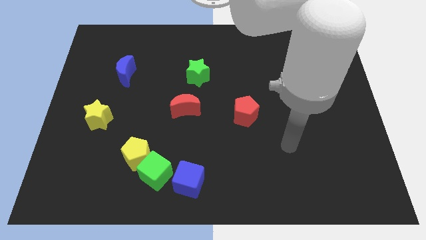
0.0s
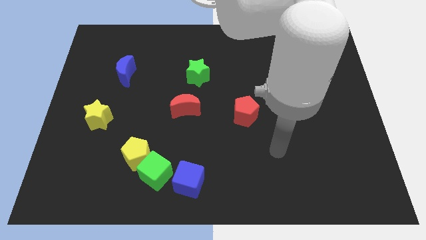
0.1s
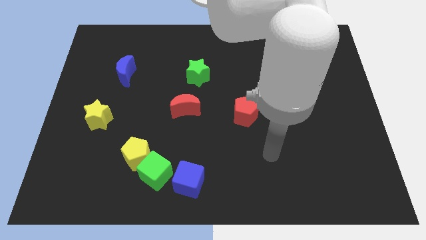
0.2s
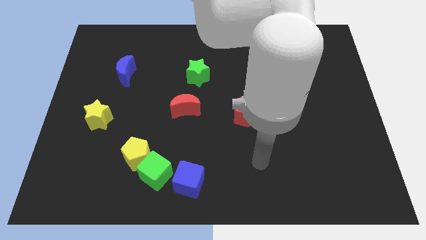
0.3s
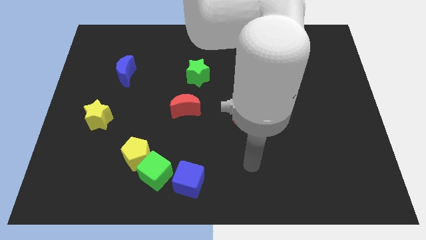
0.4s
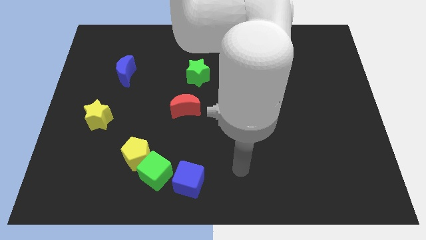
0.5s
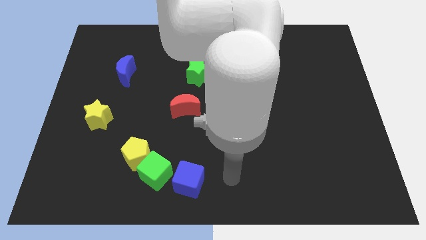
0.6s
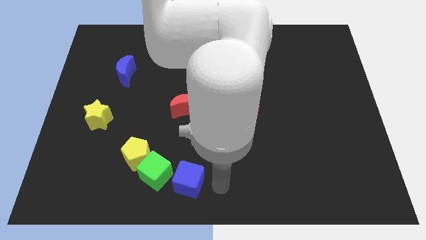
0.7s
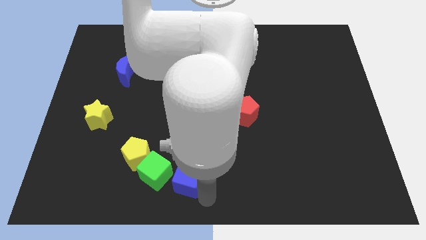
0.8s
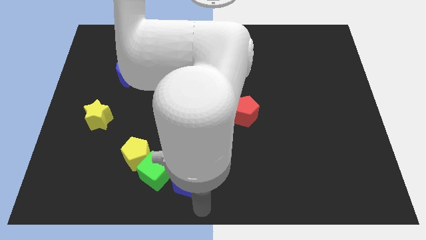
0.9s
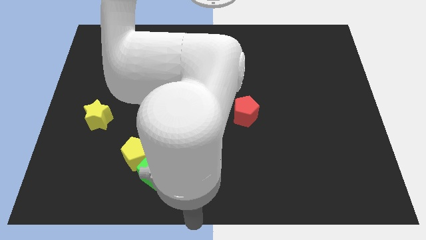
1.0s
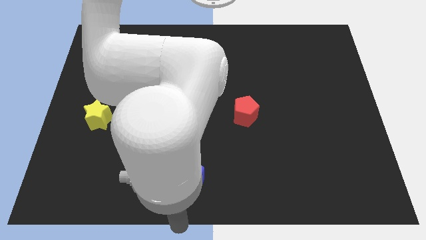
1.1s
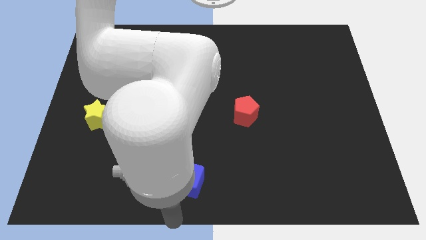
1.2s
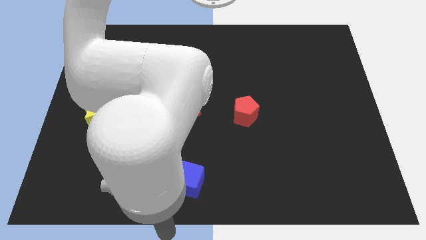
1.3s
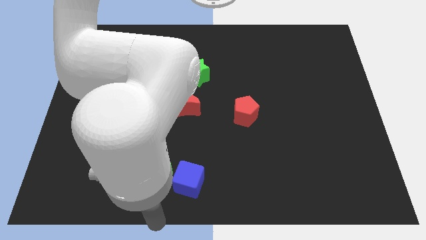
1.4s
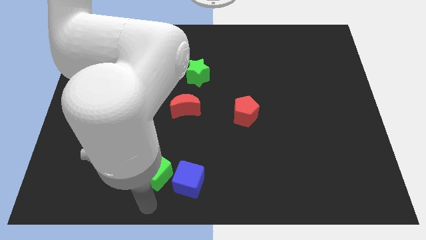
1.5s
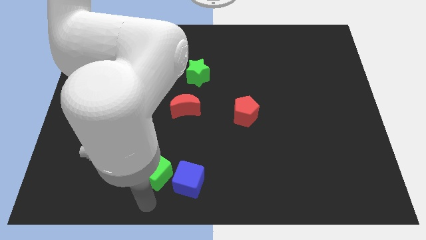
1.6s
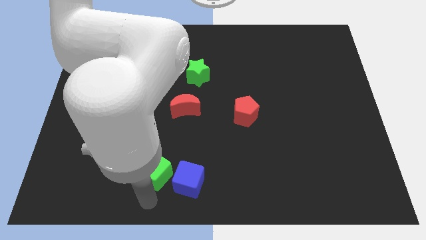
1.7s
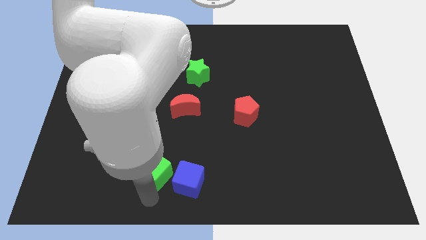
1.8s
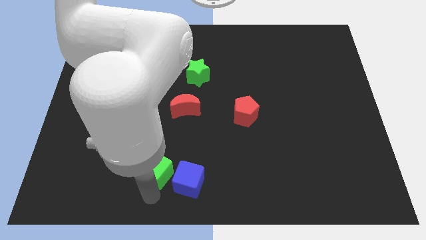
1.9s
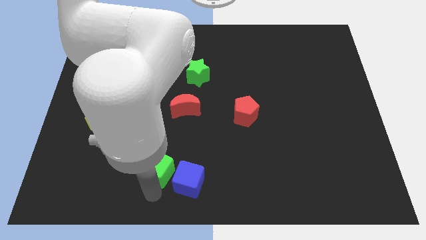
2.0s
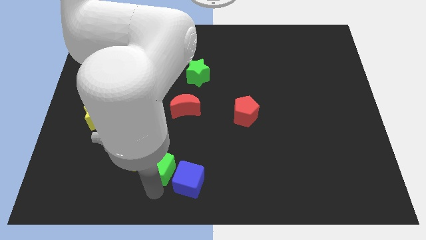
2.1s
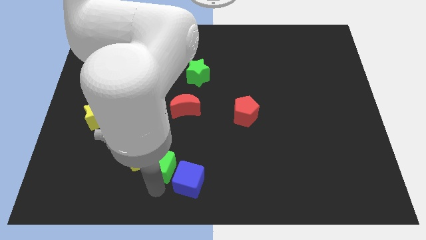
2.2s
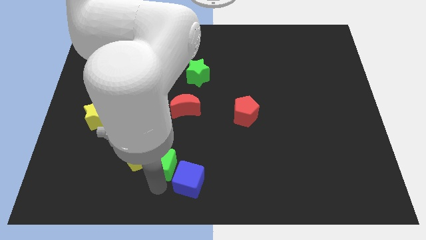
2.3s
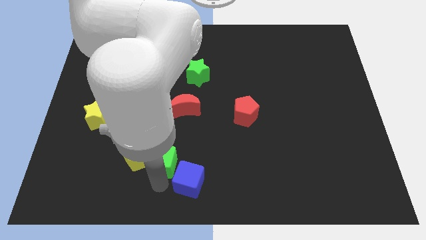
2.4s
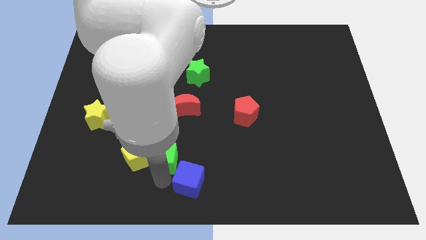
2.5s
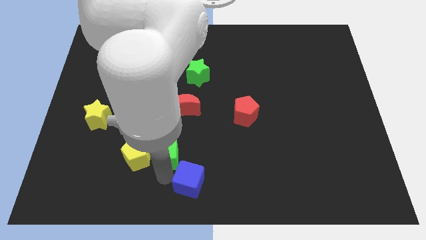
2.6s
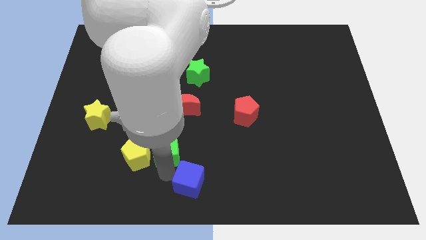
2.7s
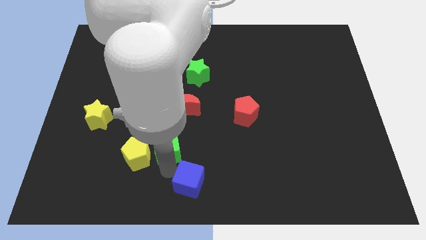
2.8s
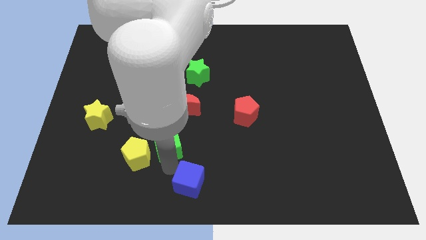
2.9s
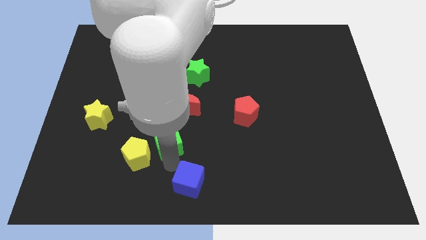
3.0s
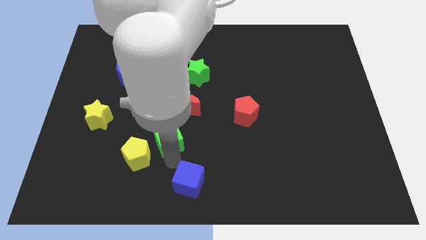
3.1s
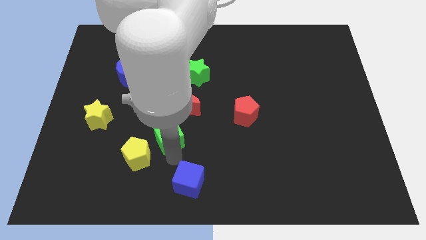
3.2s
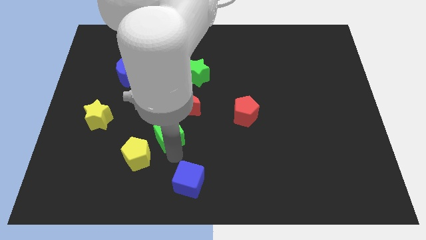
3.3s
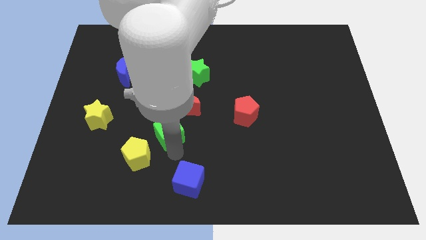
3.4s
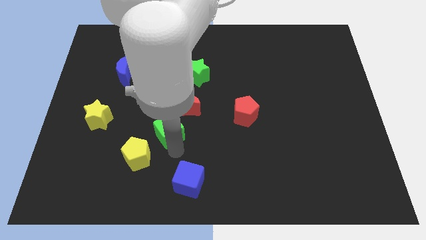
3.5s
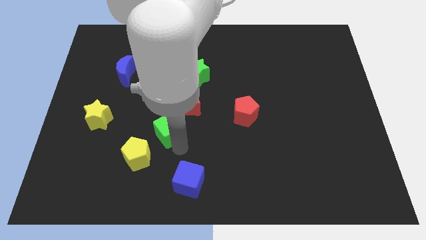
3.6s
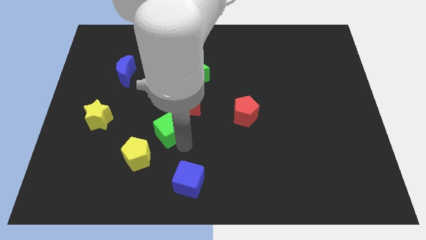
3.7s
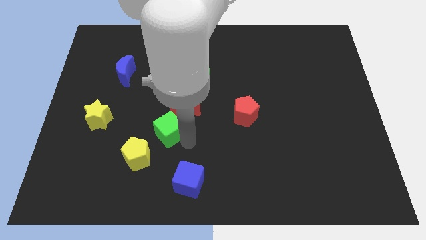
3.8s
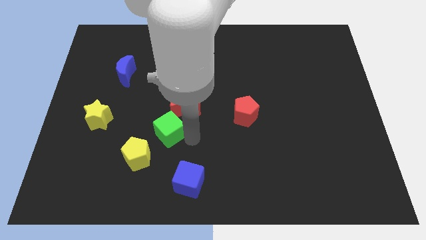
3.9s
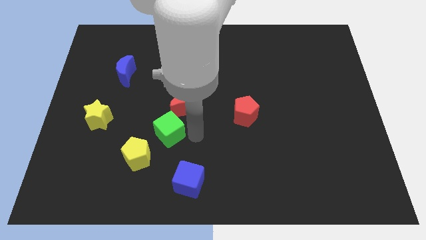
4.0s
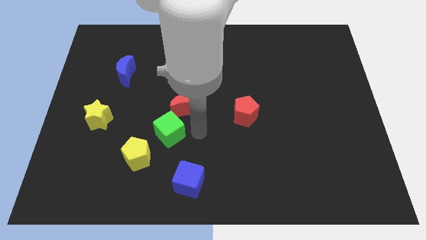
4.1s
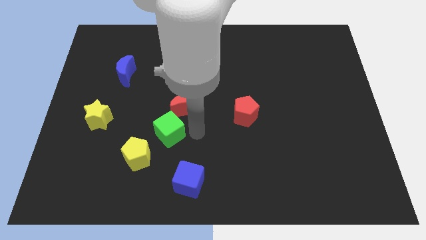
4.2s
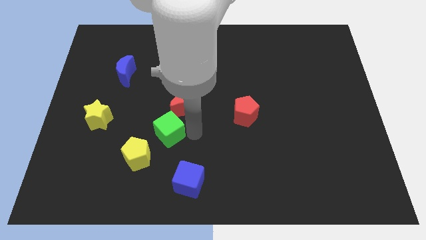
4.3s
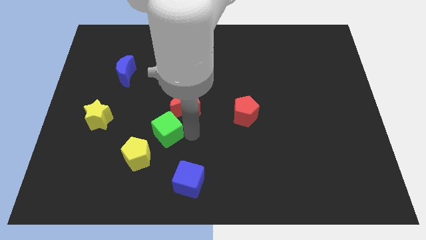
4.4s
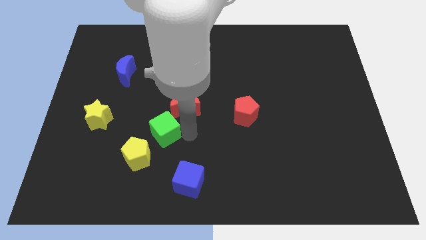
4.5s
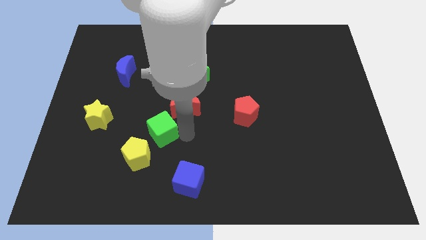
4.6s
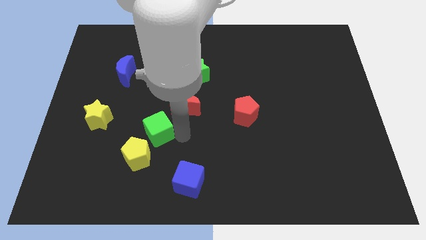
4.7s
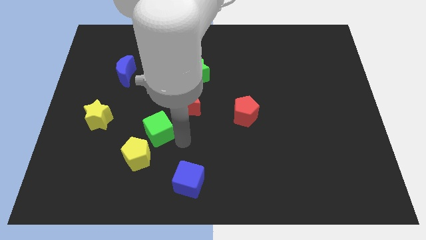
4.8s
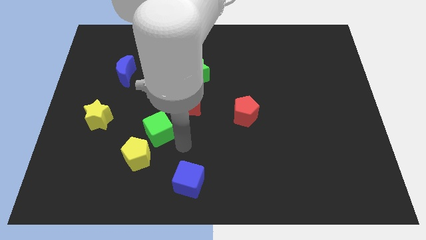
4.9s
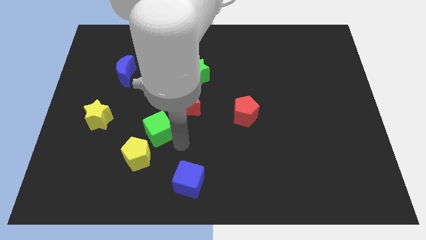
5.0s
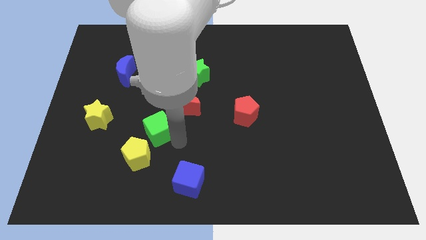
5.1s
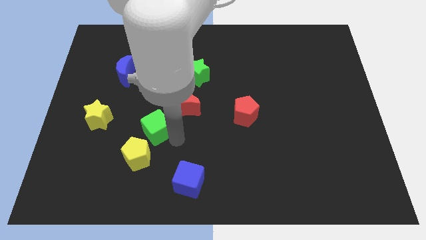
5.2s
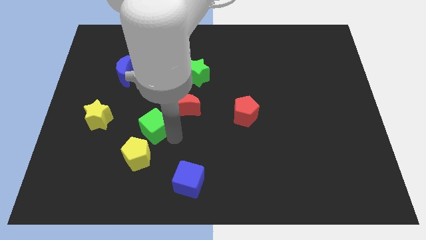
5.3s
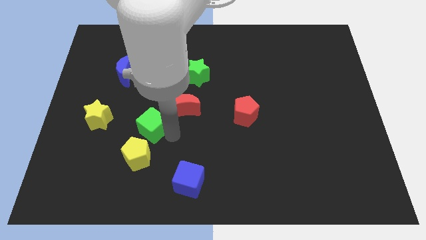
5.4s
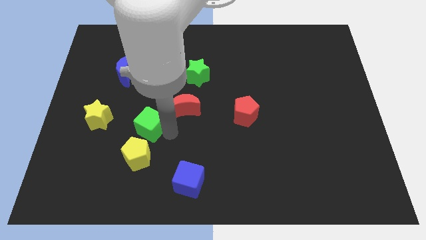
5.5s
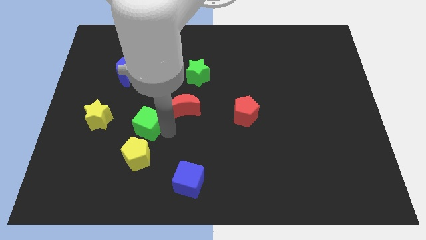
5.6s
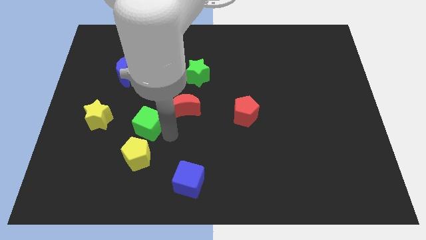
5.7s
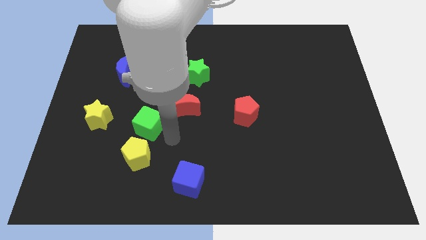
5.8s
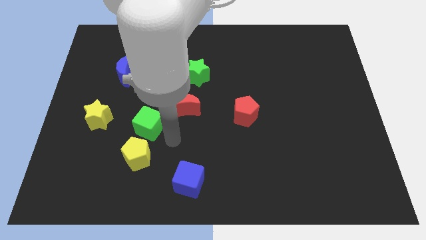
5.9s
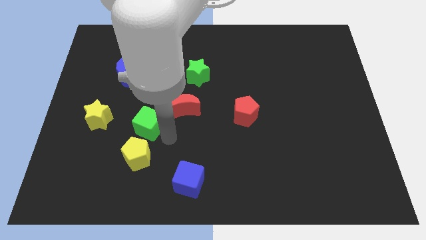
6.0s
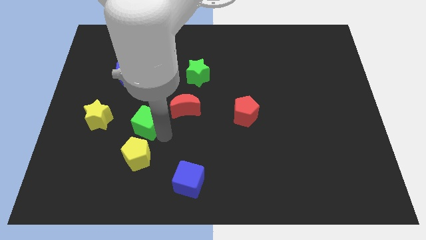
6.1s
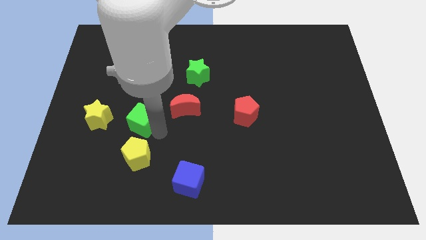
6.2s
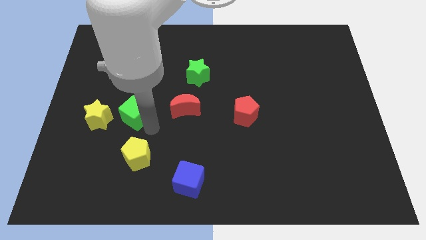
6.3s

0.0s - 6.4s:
push the green cube to the bottom side of the blue moon

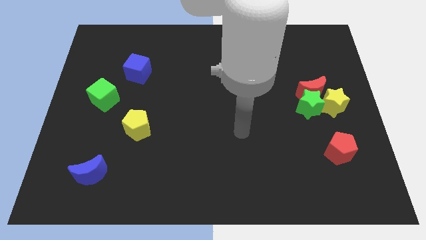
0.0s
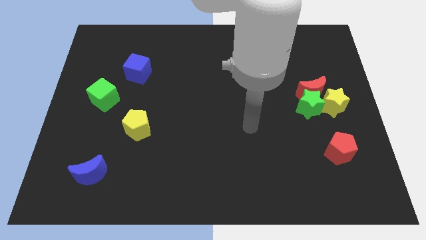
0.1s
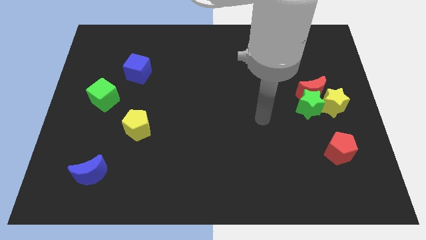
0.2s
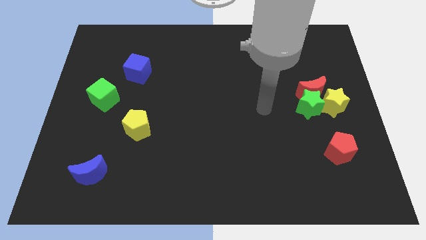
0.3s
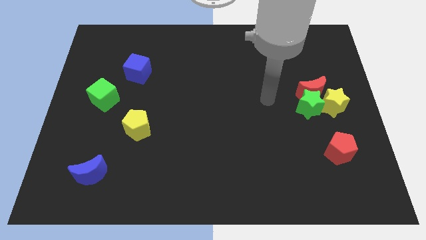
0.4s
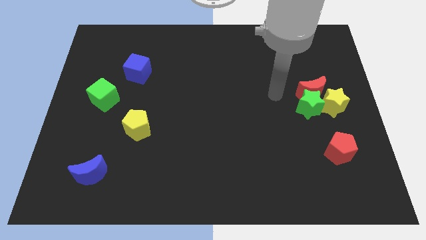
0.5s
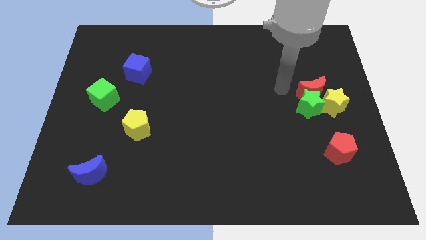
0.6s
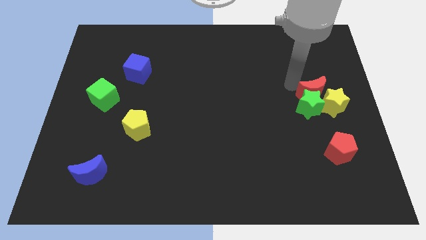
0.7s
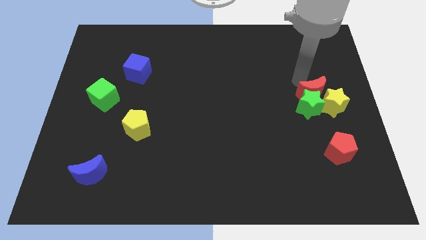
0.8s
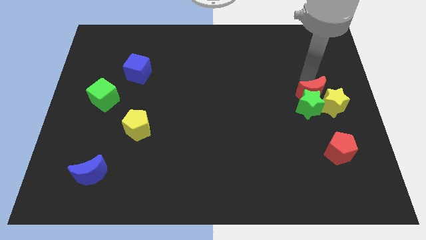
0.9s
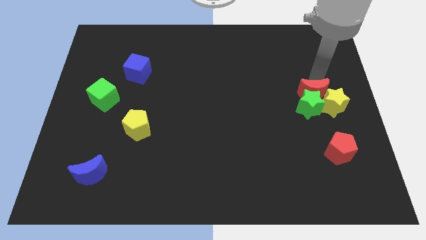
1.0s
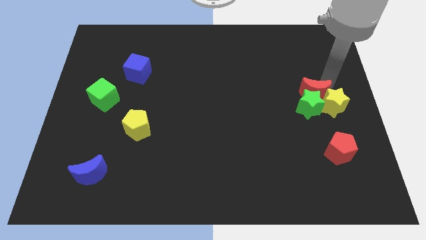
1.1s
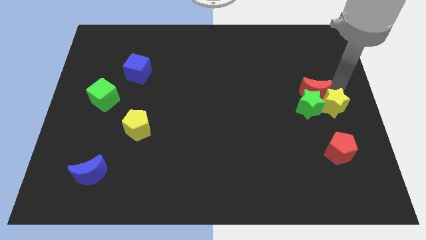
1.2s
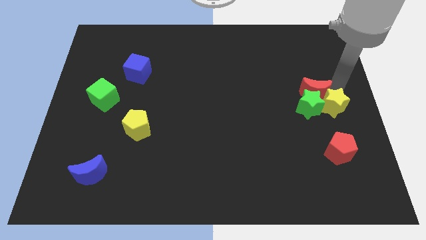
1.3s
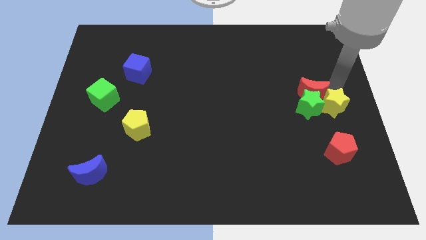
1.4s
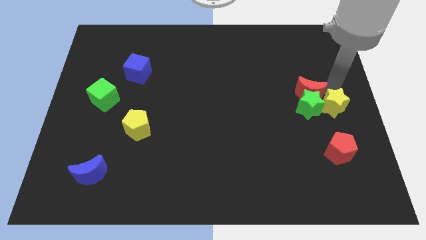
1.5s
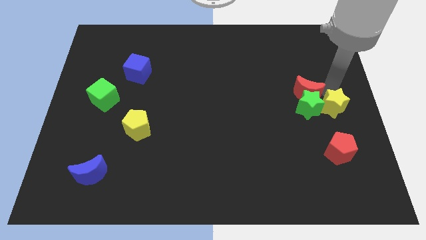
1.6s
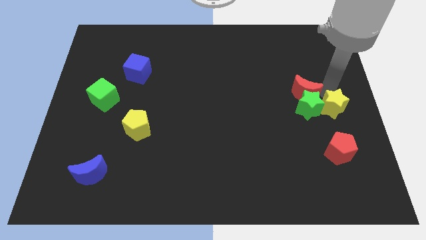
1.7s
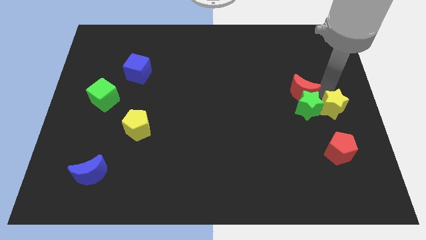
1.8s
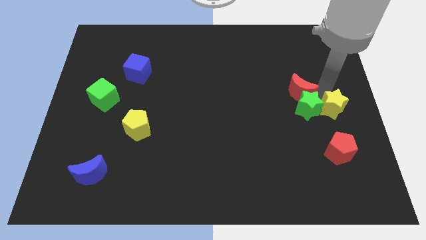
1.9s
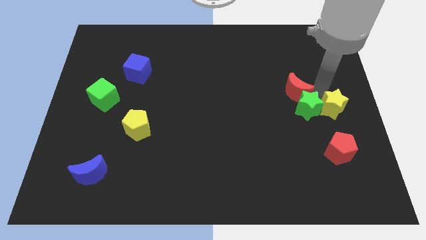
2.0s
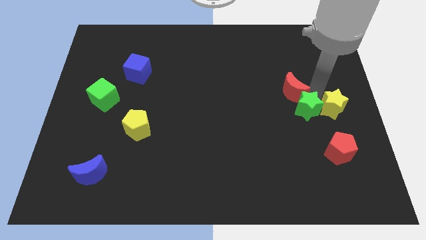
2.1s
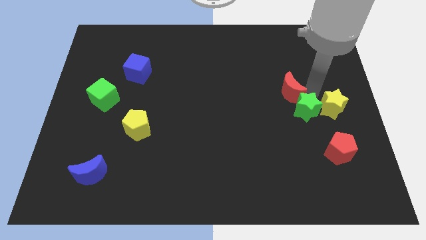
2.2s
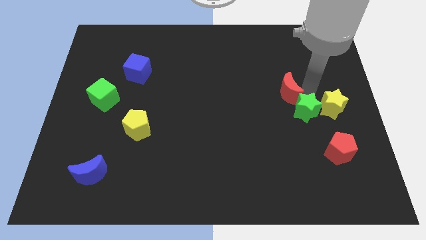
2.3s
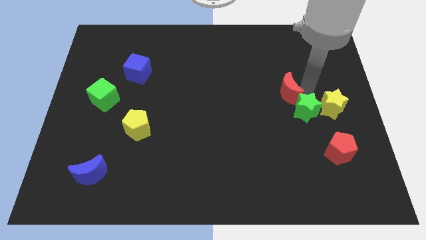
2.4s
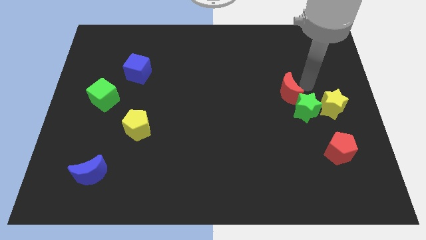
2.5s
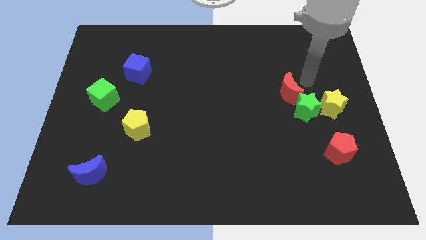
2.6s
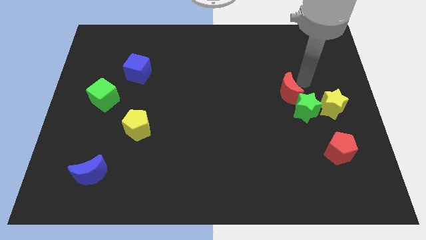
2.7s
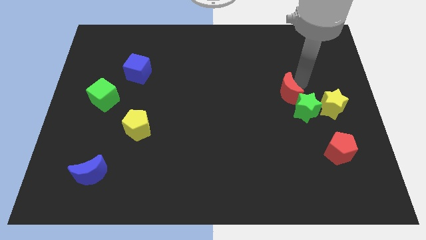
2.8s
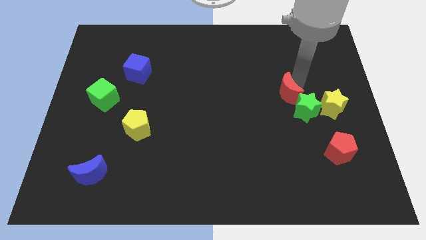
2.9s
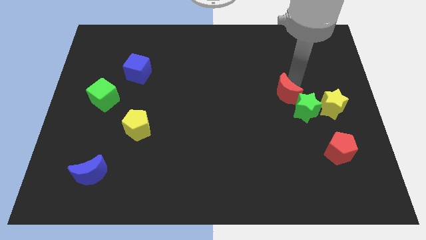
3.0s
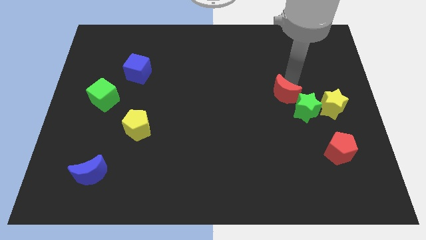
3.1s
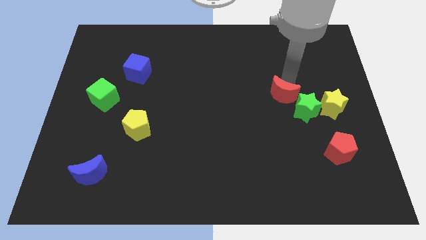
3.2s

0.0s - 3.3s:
put the red moon to the left of the green star
